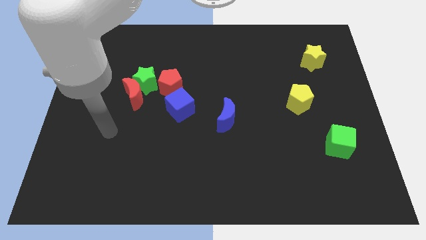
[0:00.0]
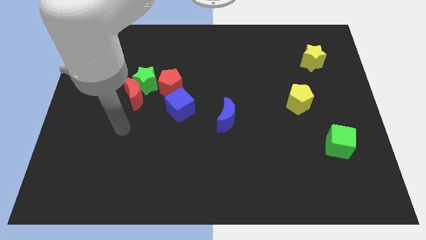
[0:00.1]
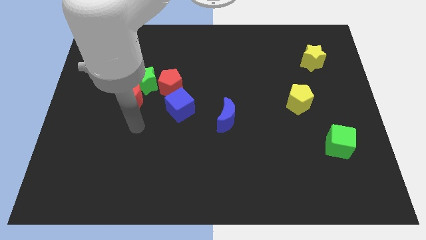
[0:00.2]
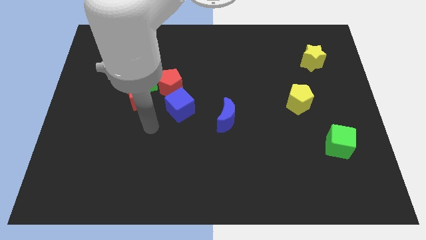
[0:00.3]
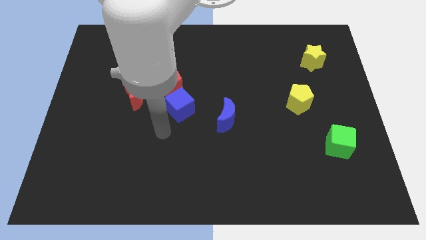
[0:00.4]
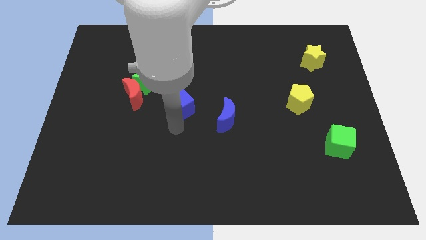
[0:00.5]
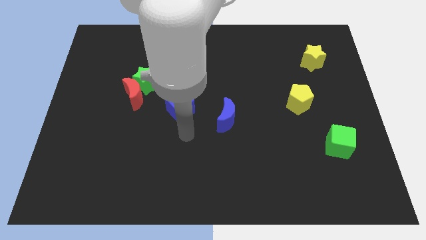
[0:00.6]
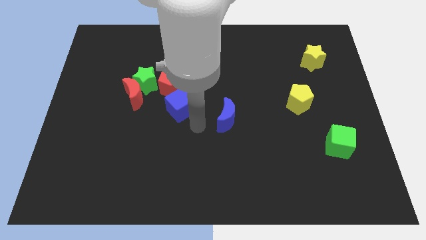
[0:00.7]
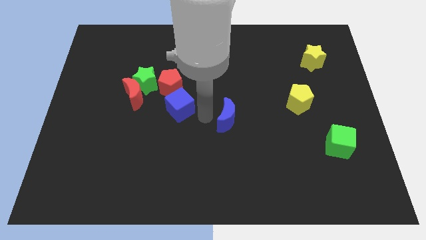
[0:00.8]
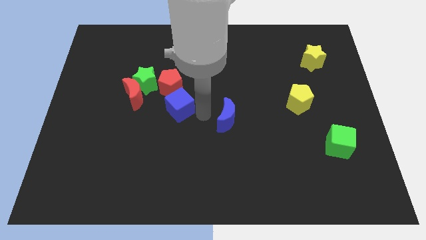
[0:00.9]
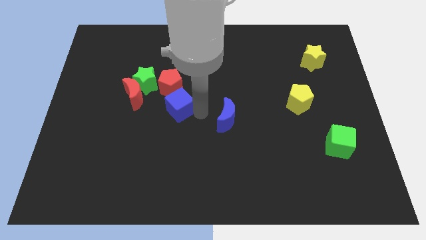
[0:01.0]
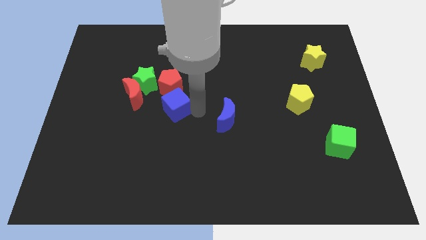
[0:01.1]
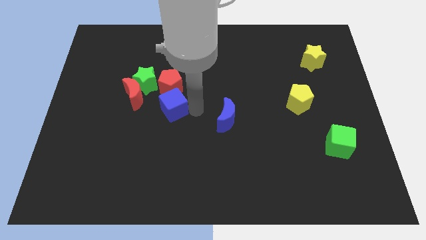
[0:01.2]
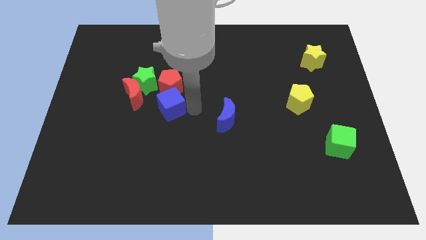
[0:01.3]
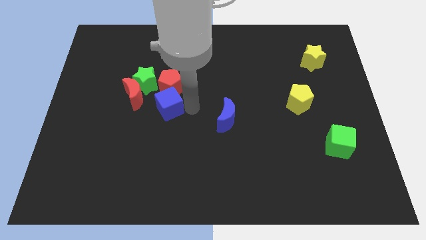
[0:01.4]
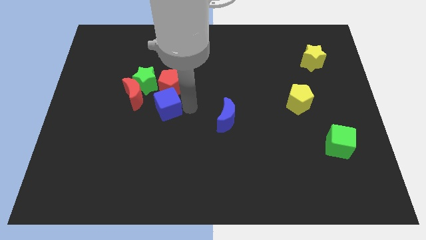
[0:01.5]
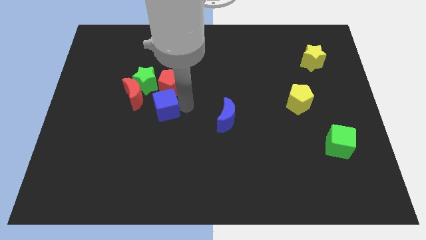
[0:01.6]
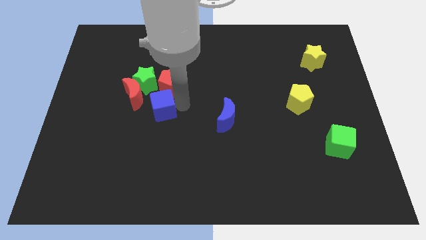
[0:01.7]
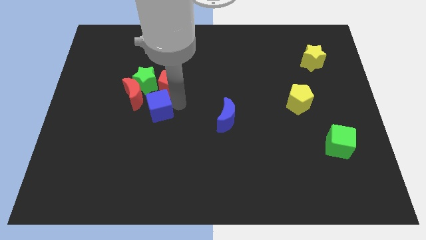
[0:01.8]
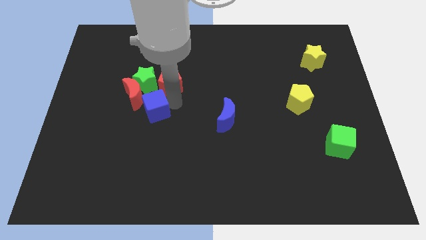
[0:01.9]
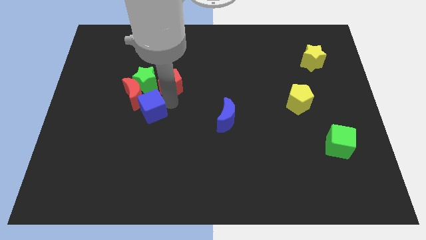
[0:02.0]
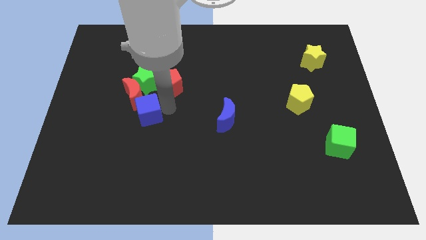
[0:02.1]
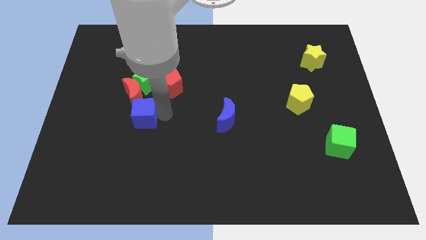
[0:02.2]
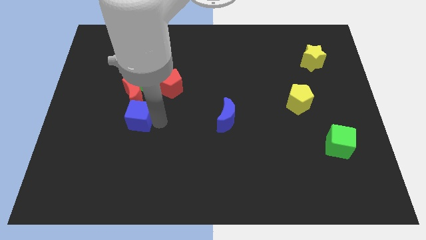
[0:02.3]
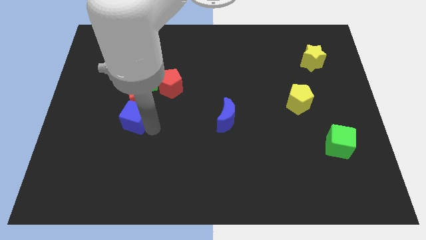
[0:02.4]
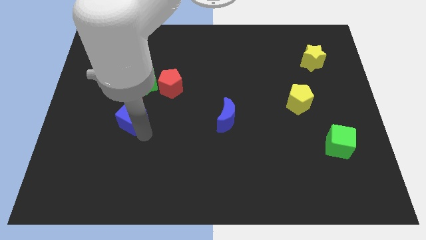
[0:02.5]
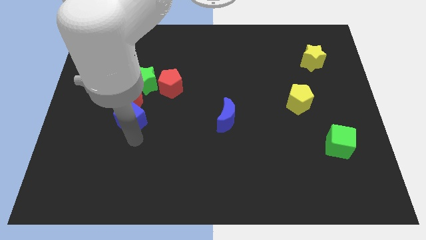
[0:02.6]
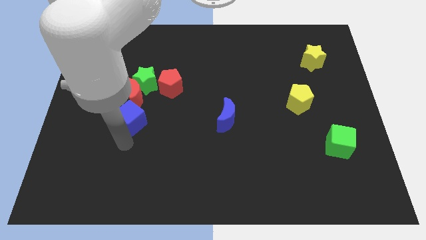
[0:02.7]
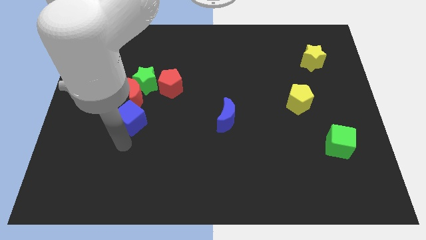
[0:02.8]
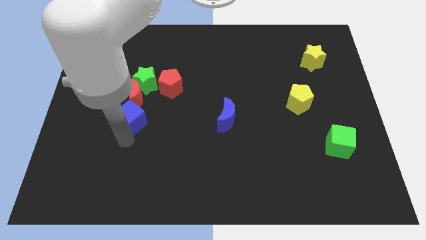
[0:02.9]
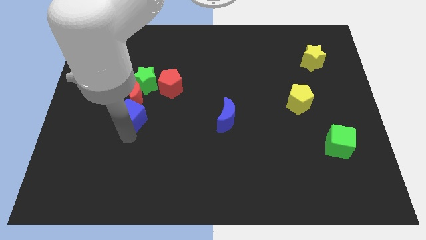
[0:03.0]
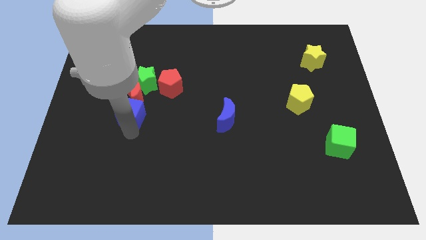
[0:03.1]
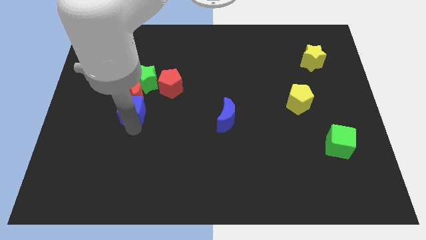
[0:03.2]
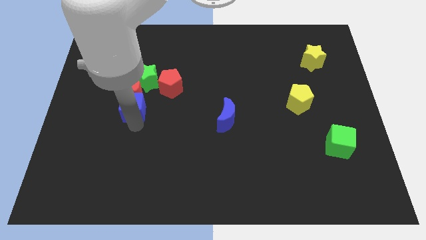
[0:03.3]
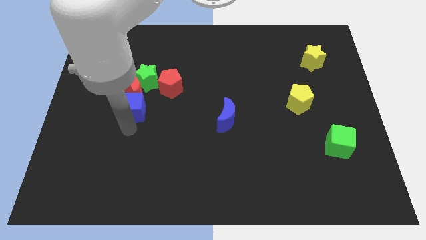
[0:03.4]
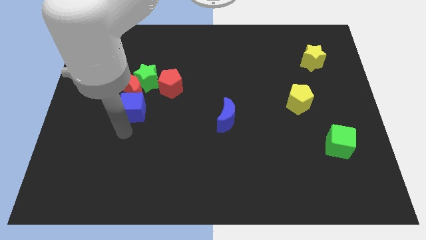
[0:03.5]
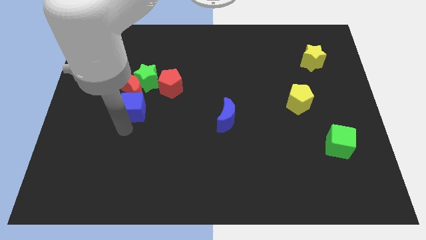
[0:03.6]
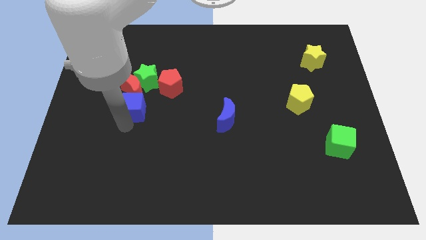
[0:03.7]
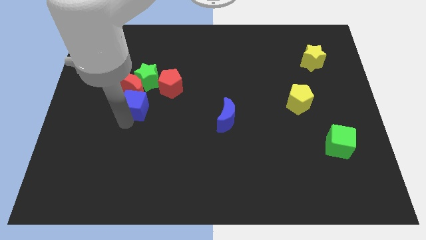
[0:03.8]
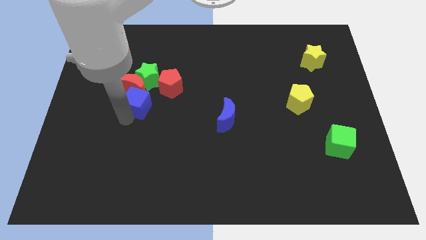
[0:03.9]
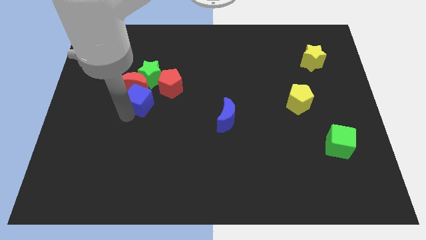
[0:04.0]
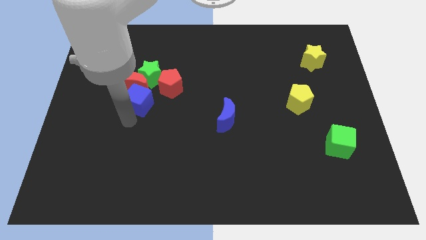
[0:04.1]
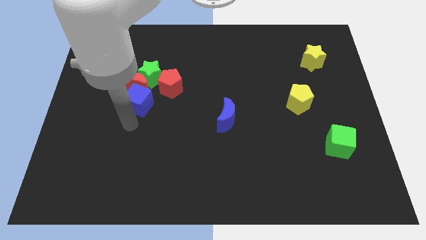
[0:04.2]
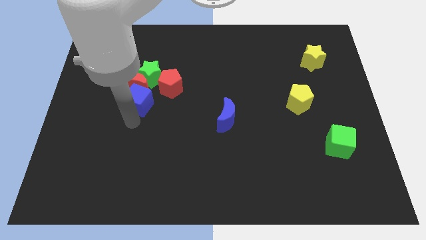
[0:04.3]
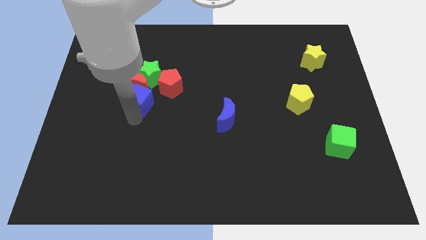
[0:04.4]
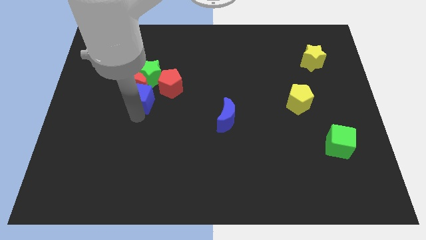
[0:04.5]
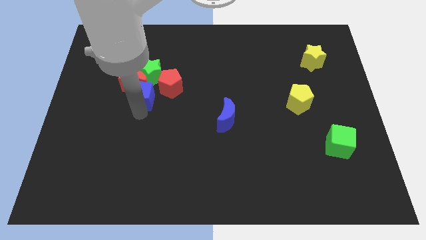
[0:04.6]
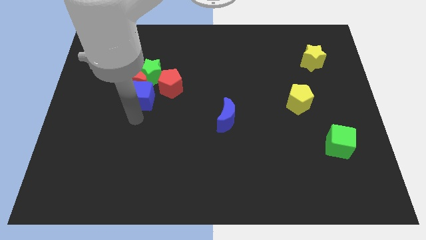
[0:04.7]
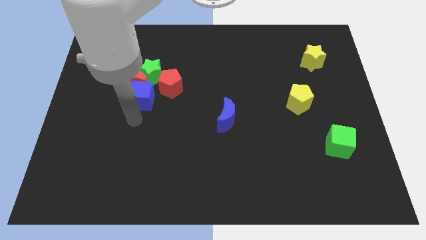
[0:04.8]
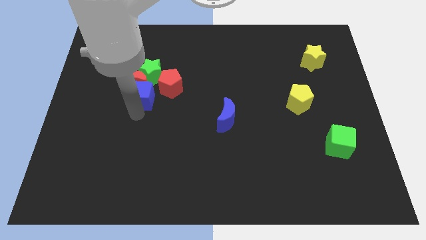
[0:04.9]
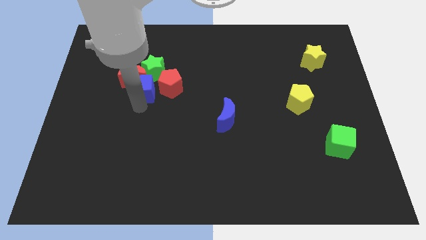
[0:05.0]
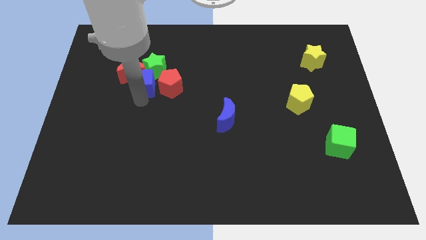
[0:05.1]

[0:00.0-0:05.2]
slide the blue cube towards the green star

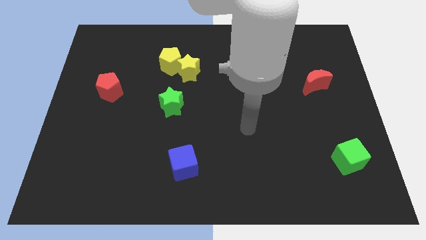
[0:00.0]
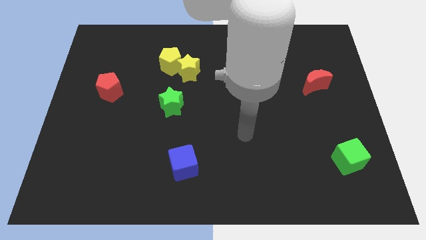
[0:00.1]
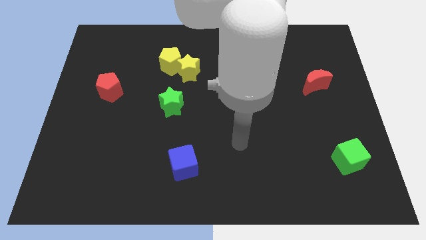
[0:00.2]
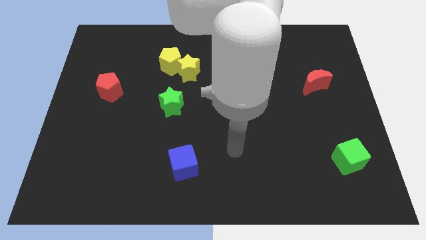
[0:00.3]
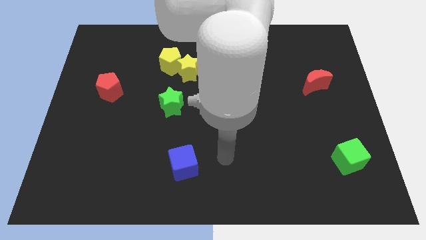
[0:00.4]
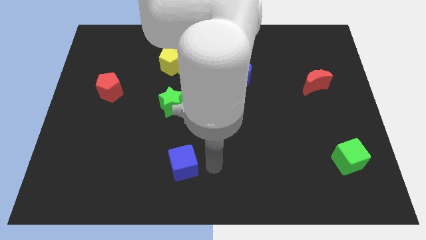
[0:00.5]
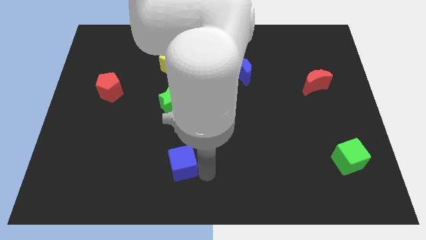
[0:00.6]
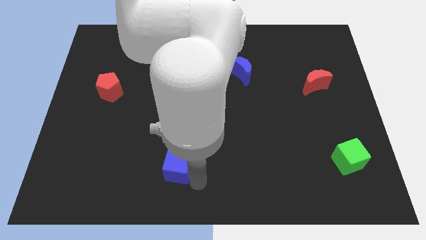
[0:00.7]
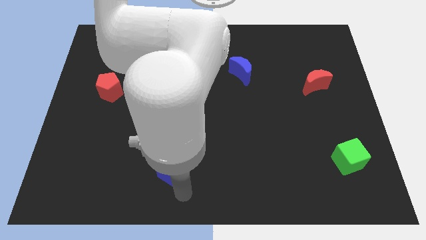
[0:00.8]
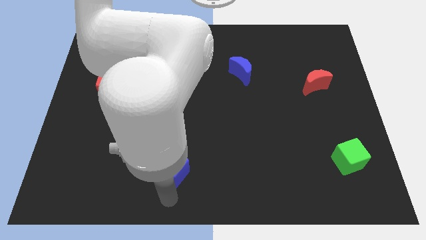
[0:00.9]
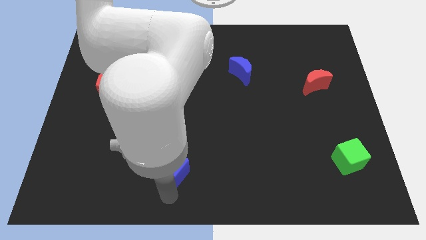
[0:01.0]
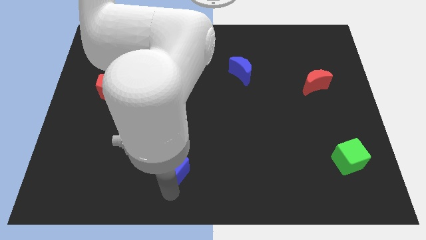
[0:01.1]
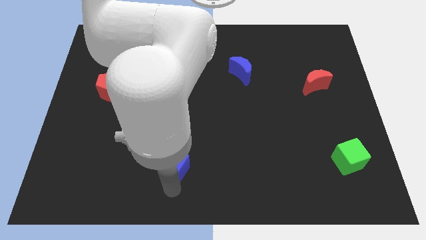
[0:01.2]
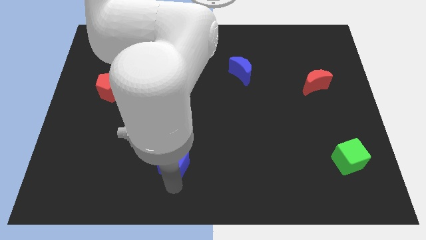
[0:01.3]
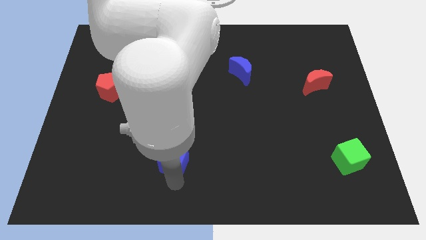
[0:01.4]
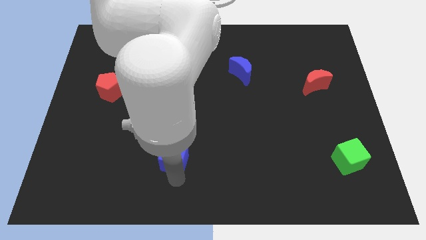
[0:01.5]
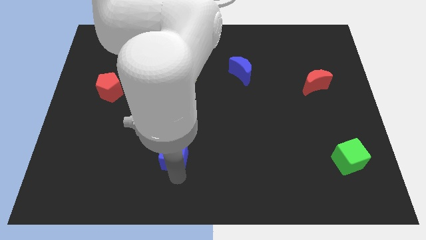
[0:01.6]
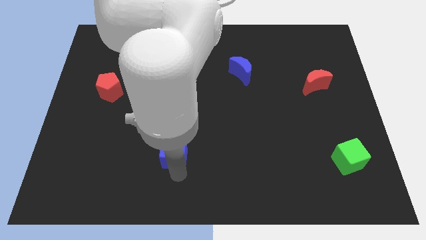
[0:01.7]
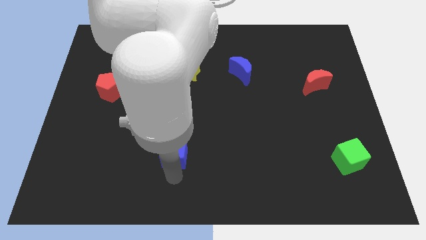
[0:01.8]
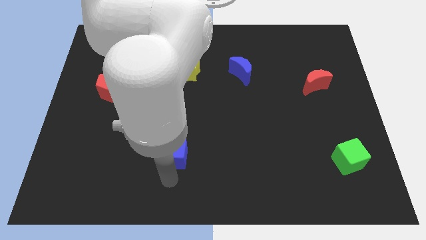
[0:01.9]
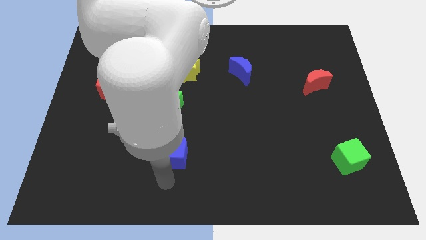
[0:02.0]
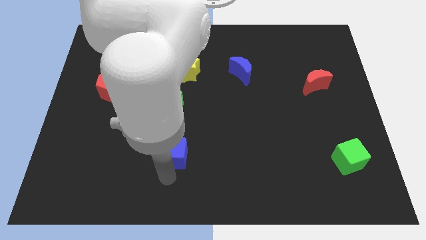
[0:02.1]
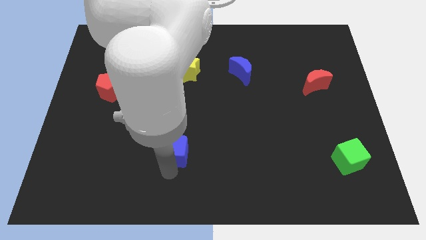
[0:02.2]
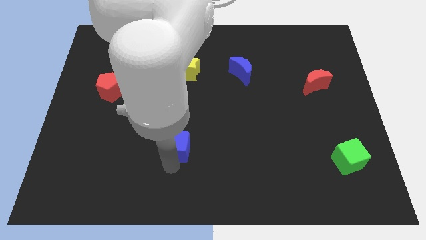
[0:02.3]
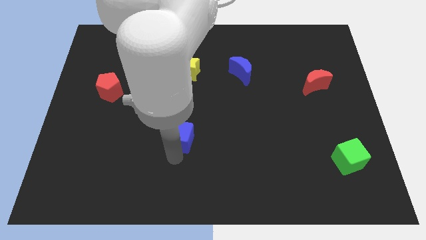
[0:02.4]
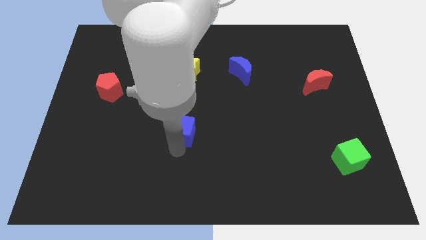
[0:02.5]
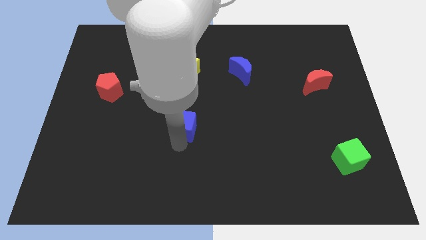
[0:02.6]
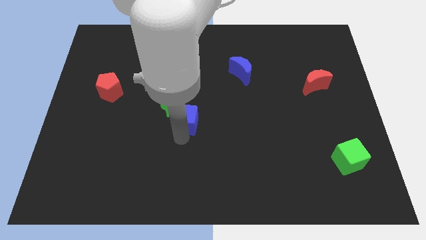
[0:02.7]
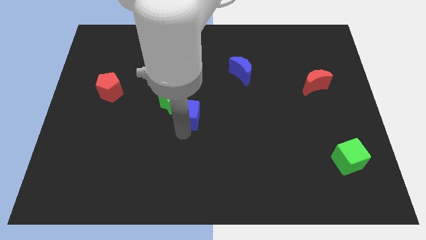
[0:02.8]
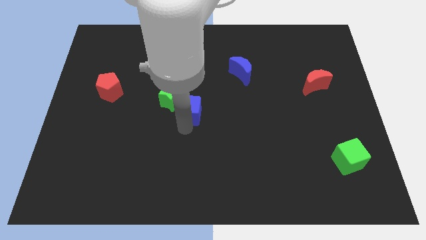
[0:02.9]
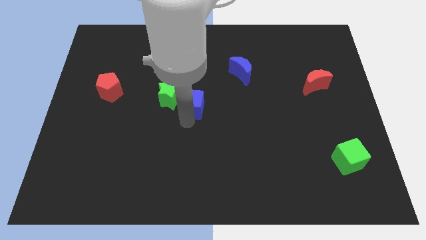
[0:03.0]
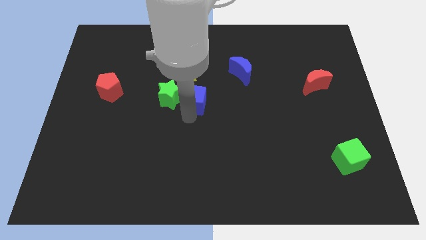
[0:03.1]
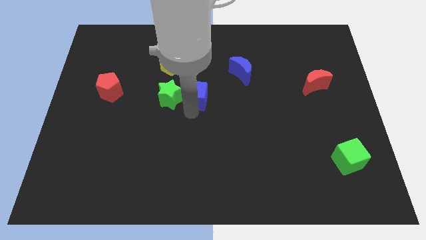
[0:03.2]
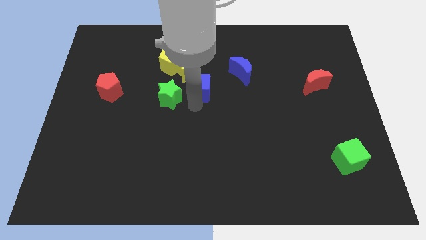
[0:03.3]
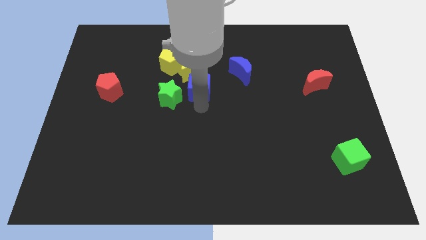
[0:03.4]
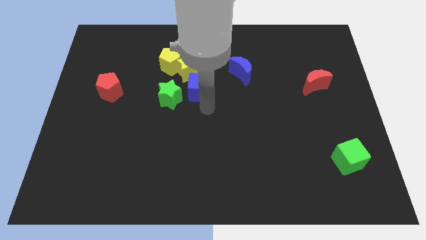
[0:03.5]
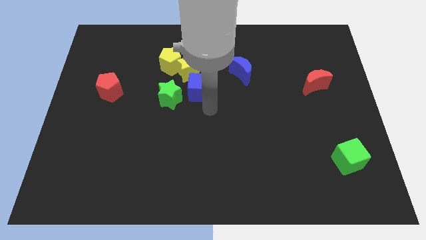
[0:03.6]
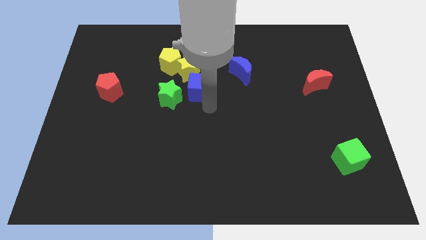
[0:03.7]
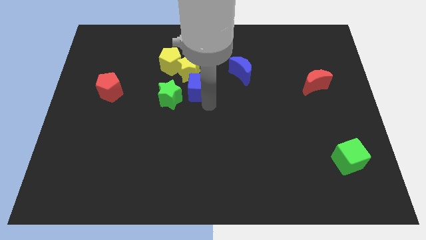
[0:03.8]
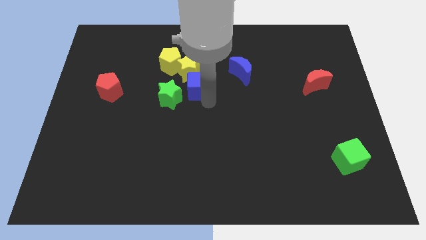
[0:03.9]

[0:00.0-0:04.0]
put the blue cube close to the yellow star
